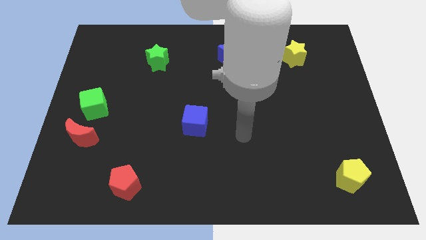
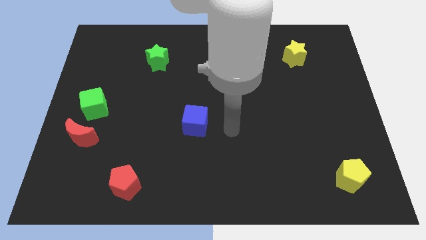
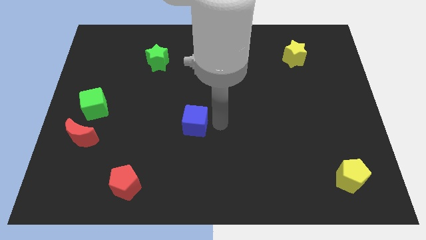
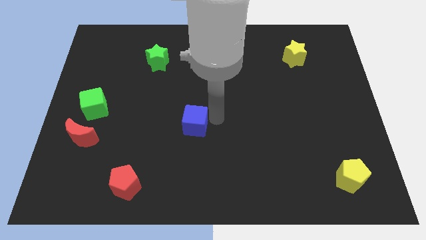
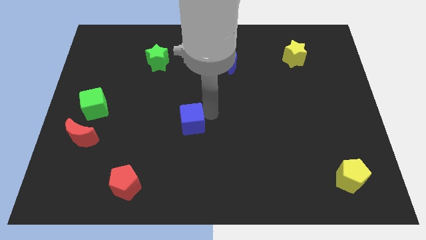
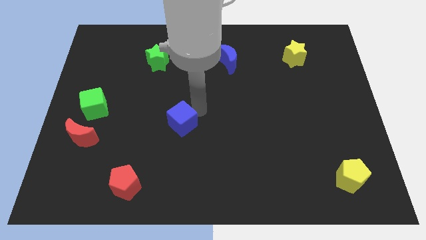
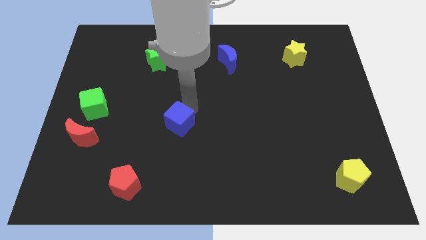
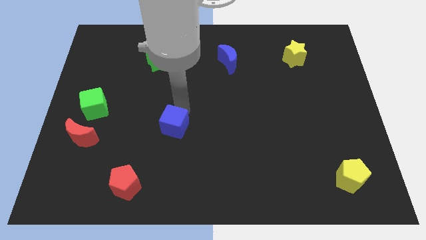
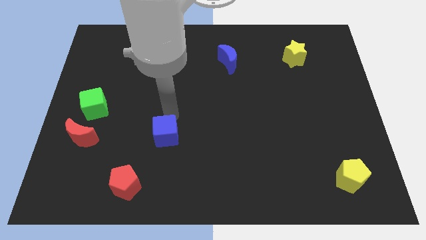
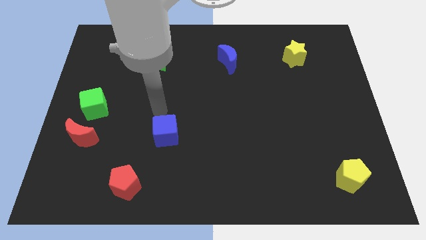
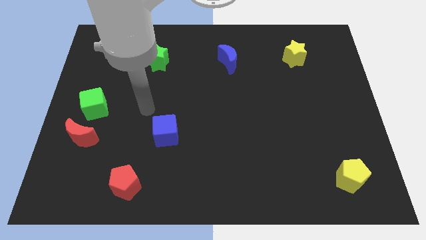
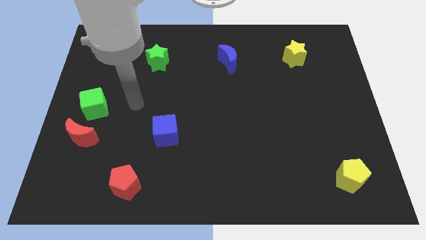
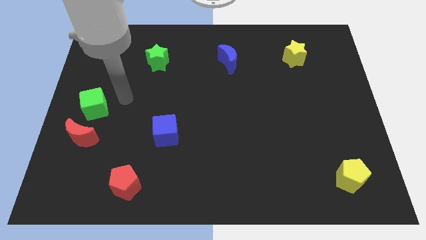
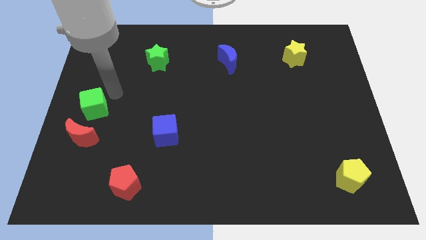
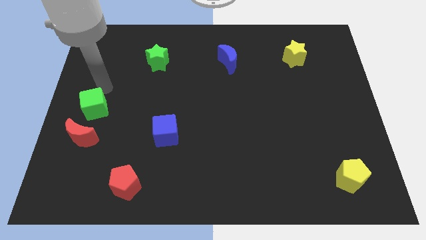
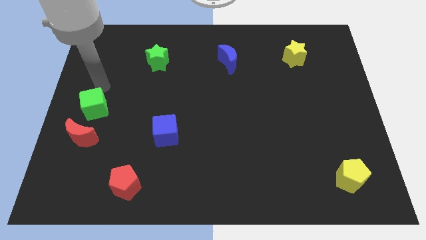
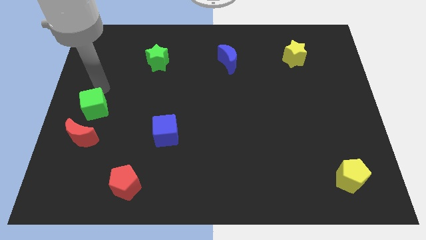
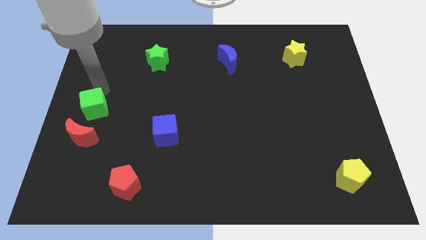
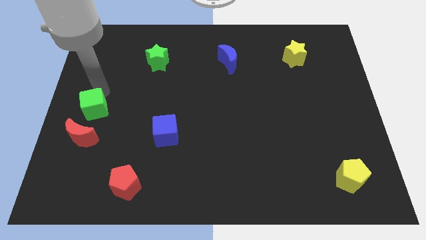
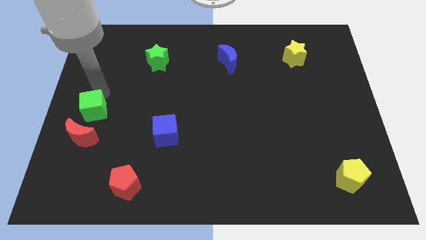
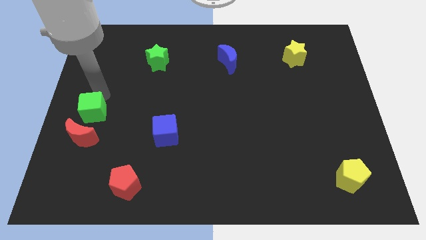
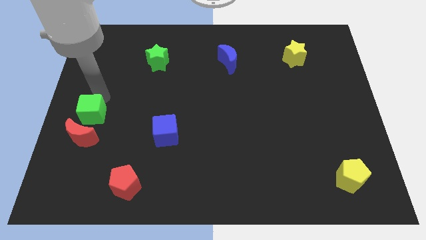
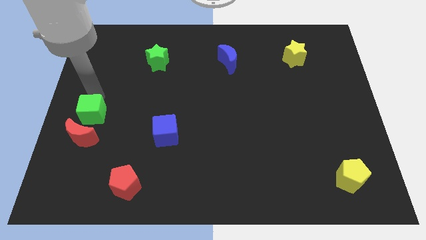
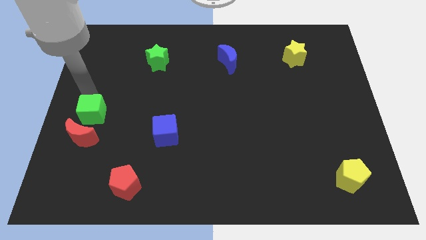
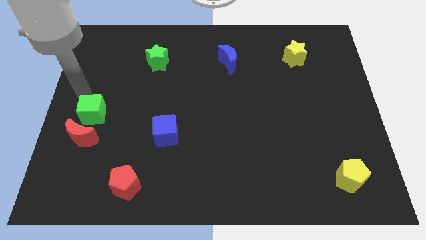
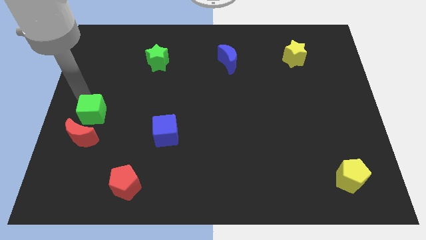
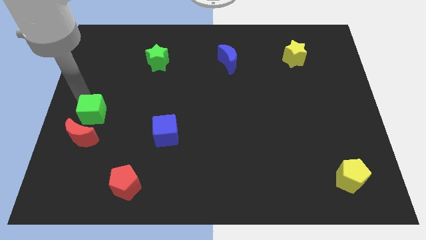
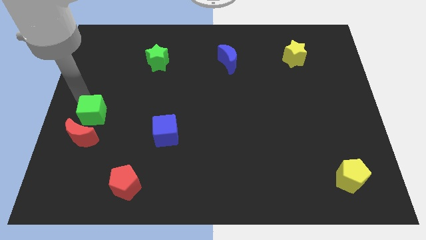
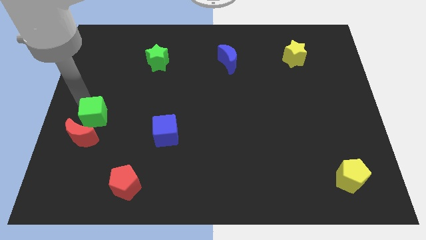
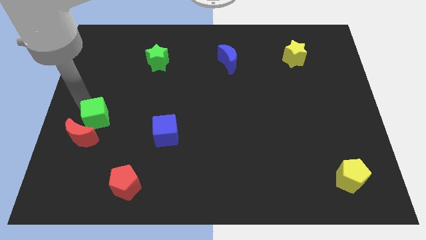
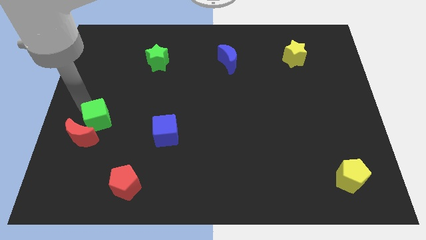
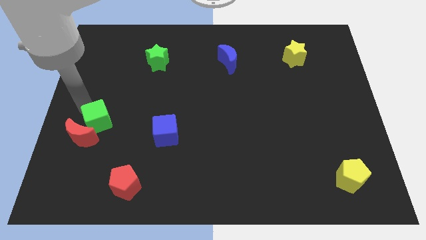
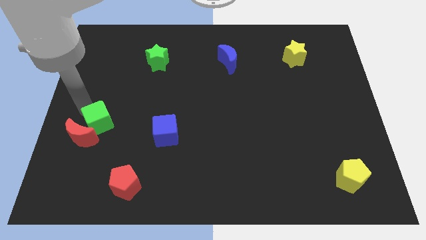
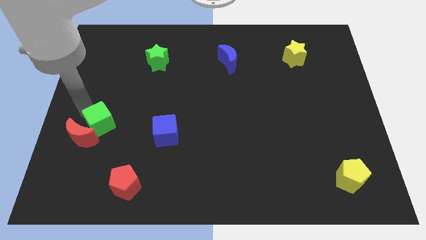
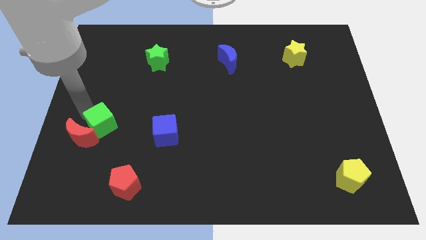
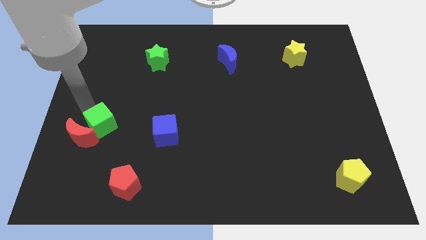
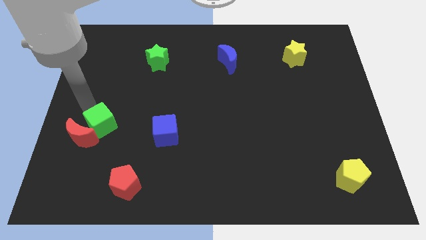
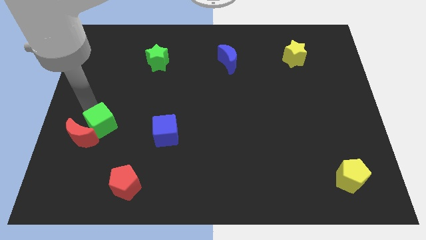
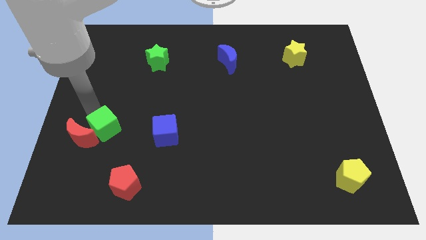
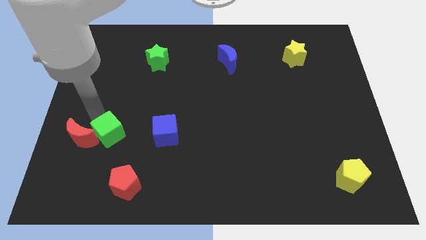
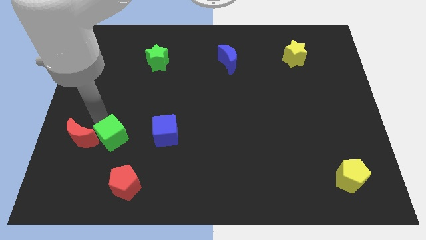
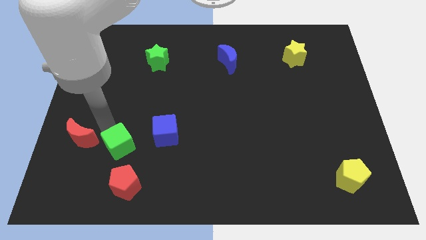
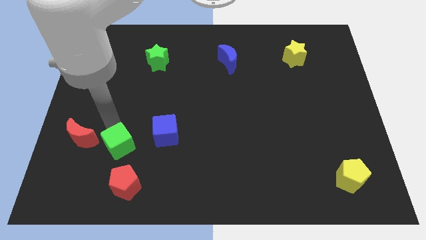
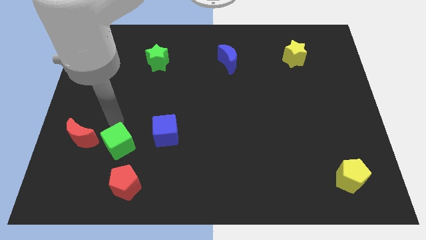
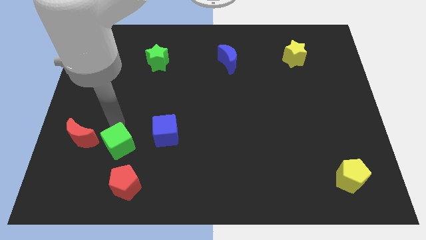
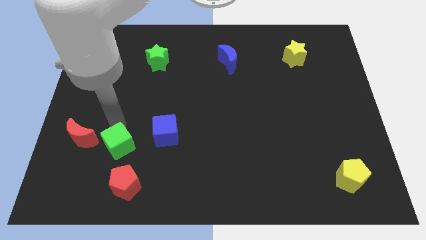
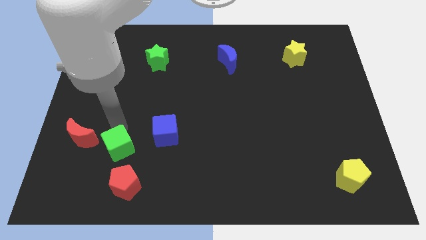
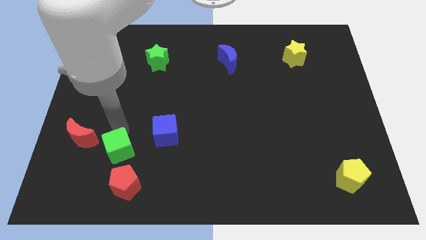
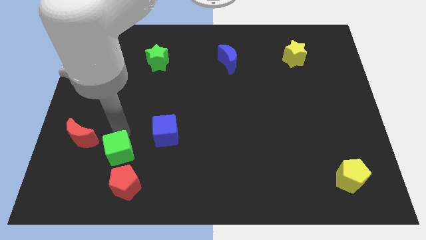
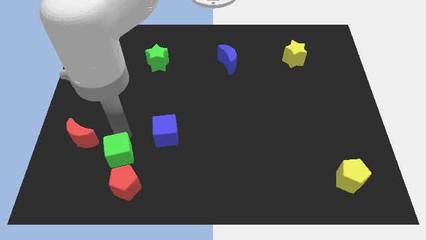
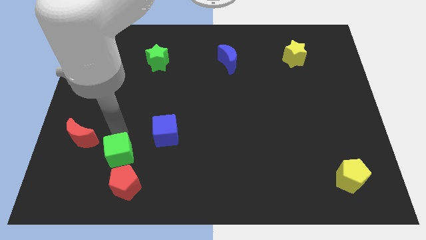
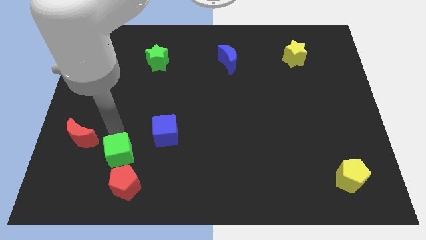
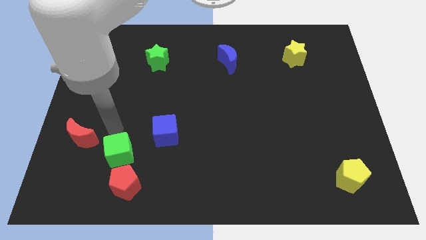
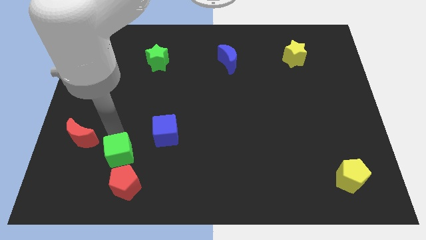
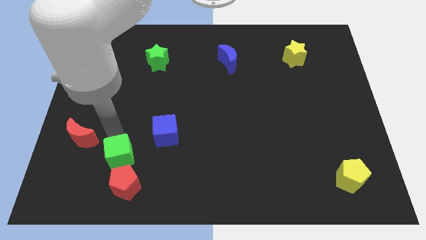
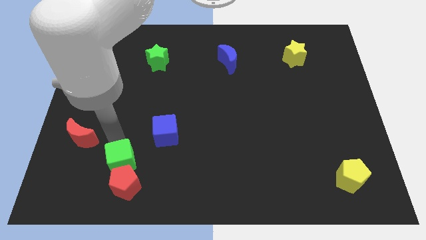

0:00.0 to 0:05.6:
slide the green cube next to the red pentagon

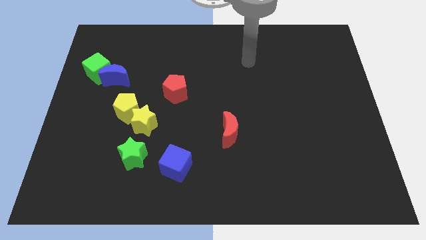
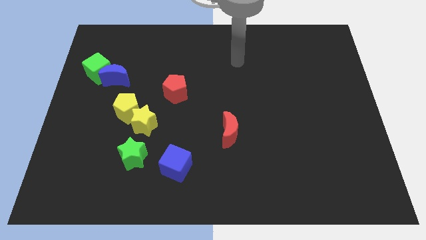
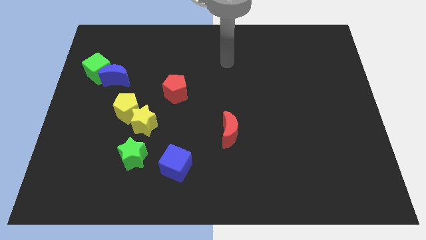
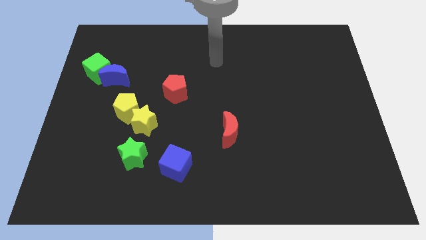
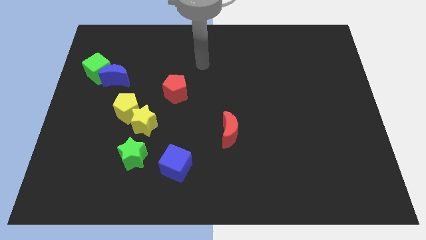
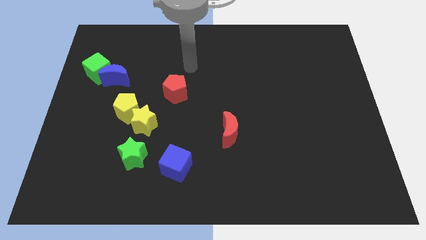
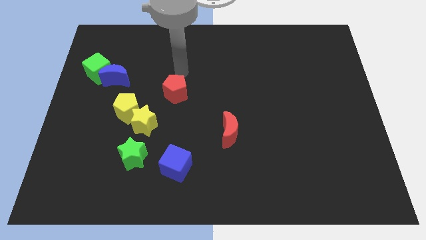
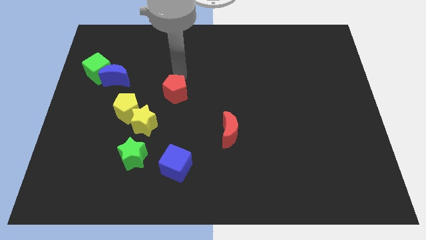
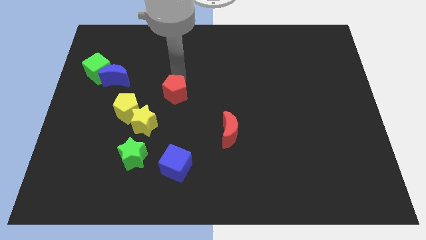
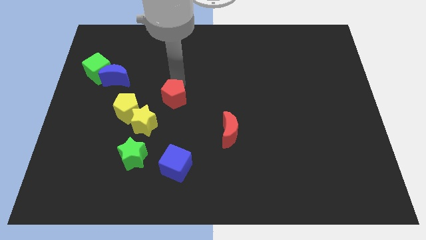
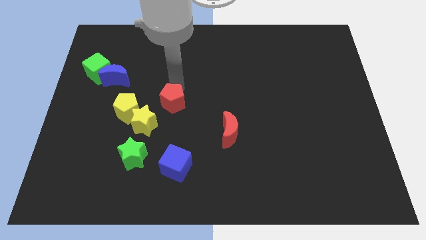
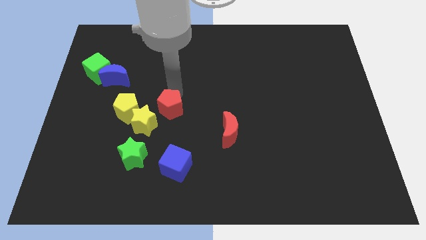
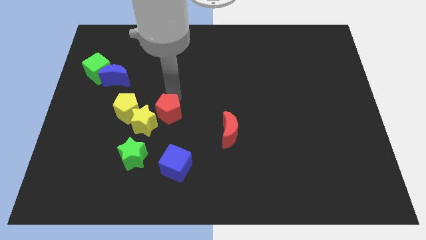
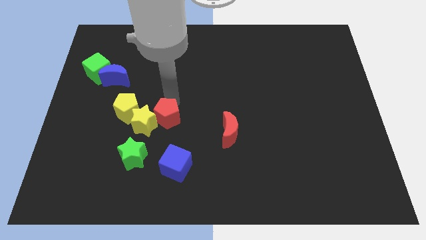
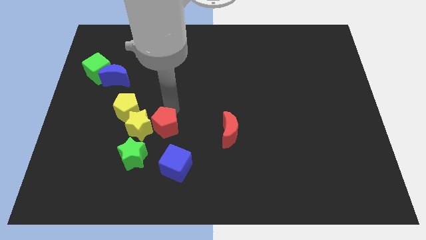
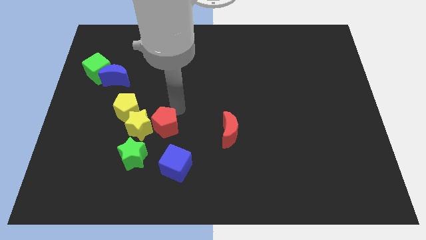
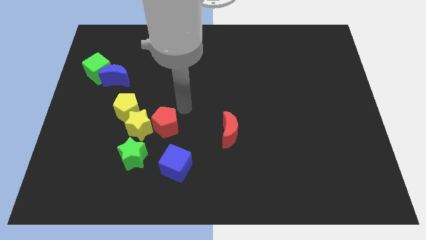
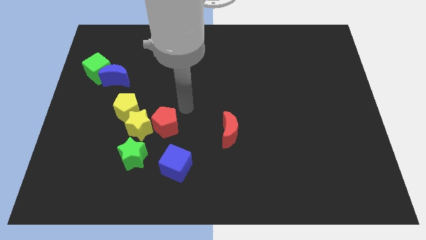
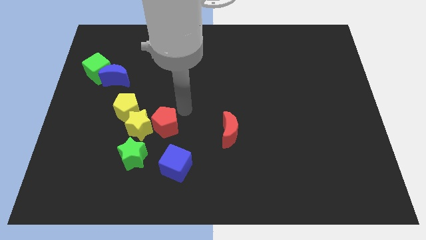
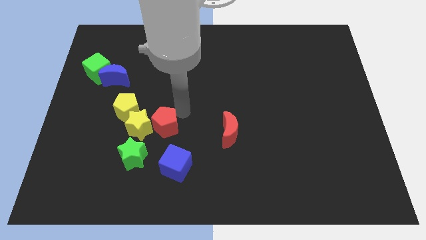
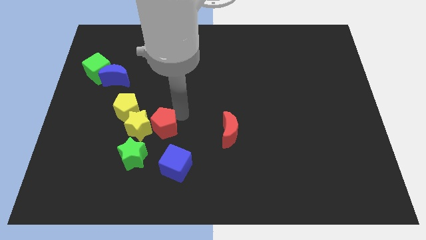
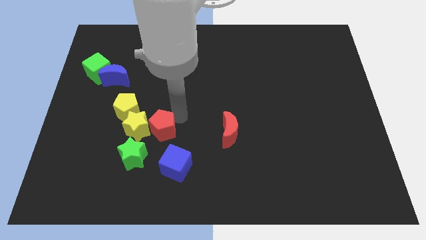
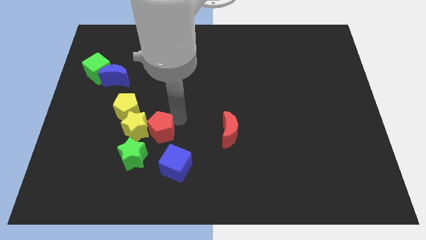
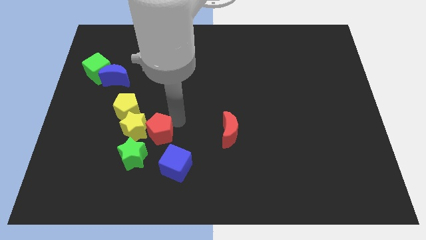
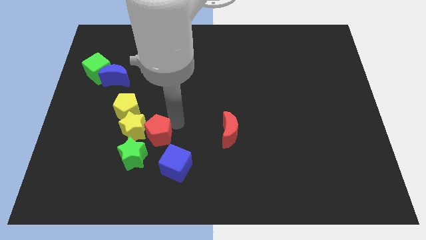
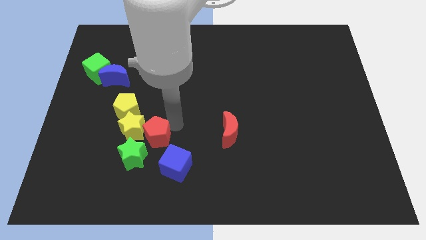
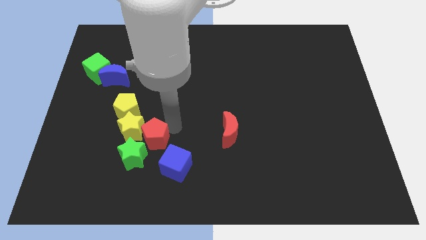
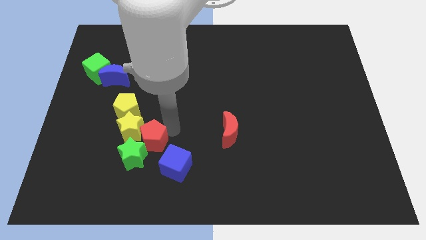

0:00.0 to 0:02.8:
slide the red pentagon close to the green star
